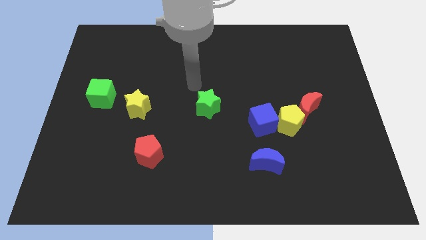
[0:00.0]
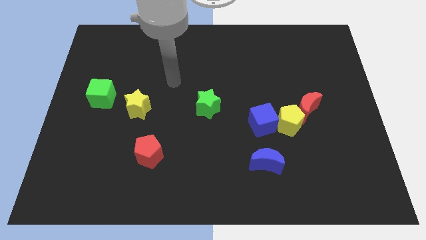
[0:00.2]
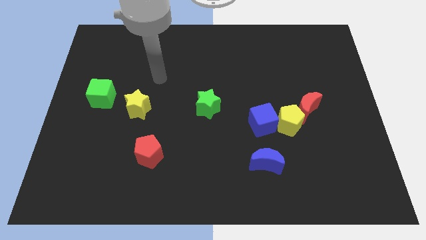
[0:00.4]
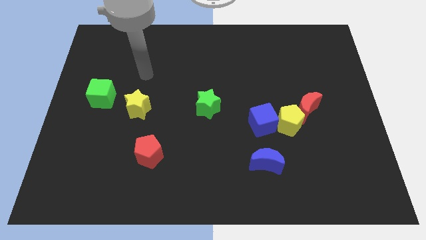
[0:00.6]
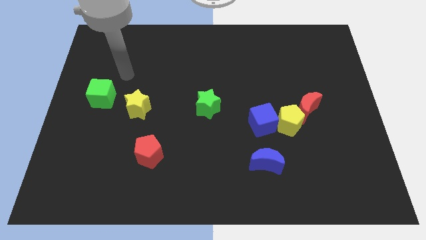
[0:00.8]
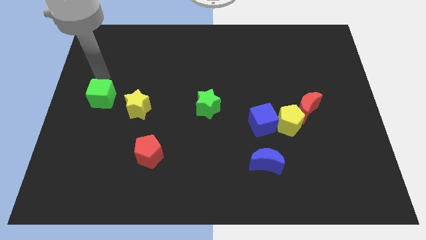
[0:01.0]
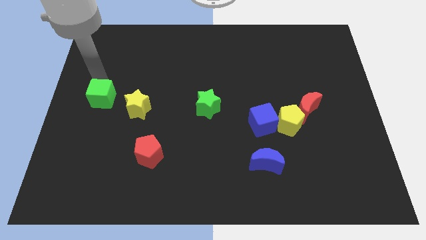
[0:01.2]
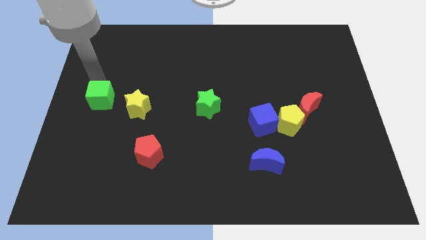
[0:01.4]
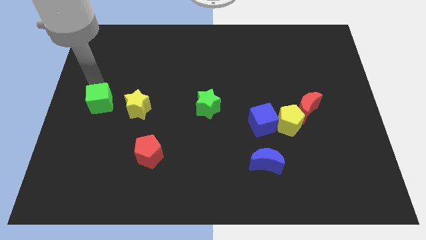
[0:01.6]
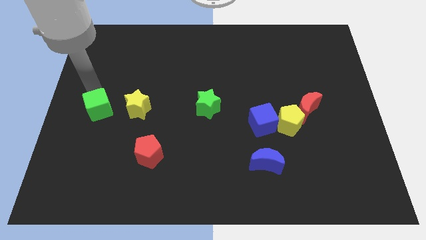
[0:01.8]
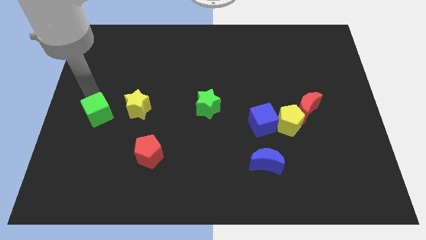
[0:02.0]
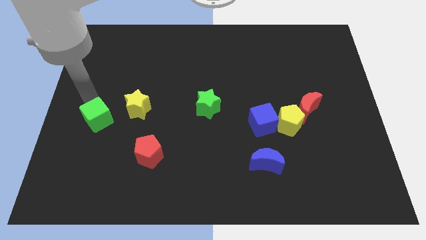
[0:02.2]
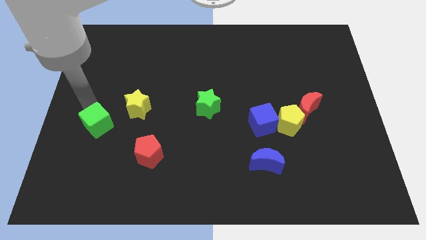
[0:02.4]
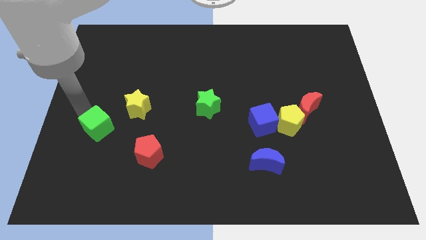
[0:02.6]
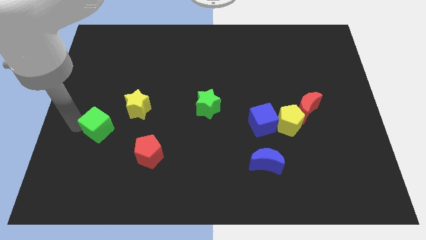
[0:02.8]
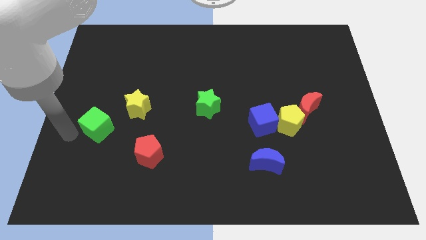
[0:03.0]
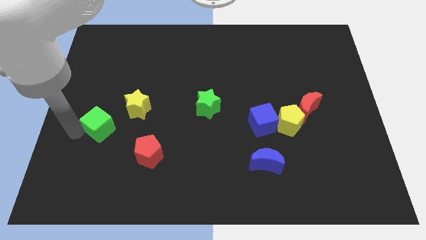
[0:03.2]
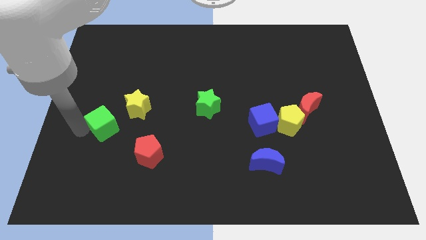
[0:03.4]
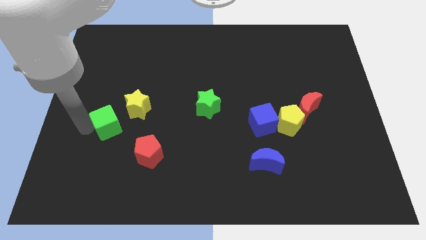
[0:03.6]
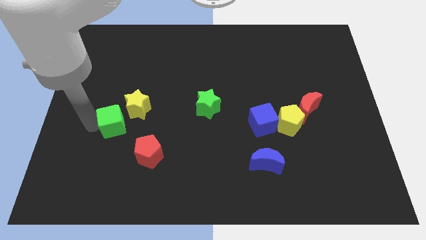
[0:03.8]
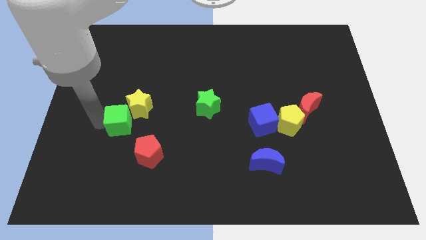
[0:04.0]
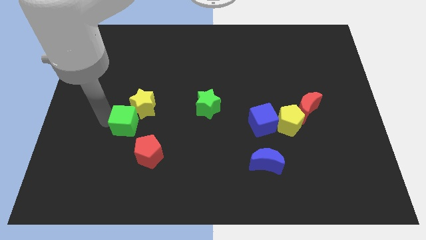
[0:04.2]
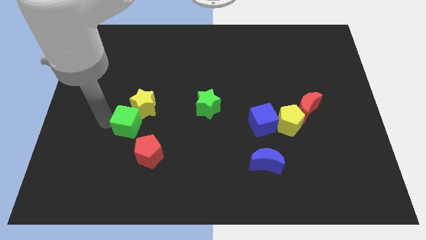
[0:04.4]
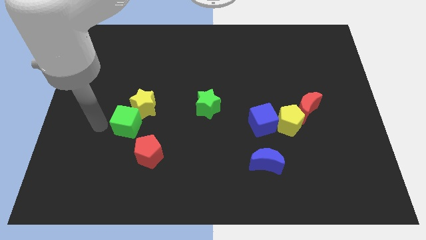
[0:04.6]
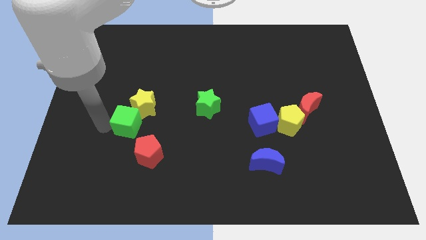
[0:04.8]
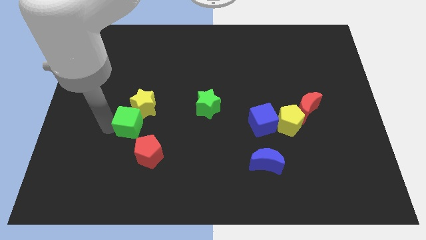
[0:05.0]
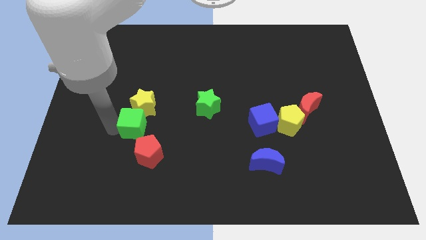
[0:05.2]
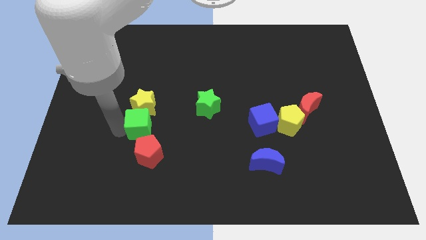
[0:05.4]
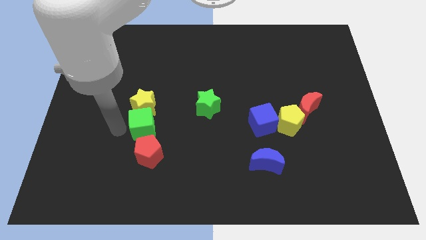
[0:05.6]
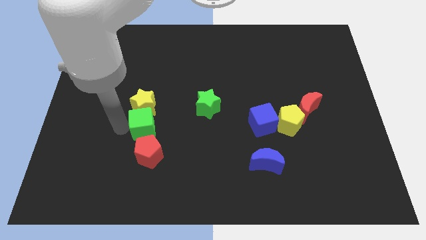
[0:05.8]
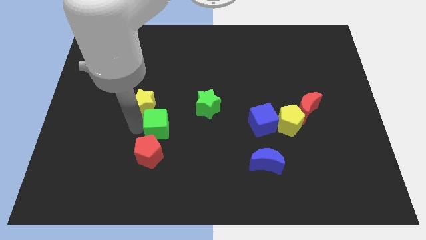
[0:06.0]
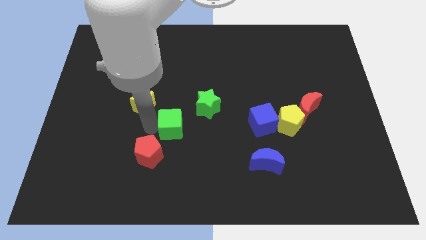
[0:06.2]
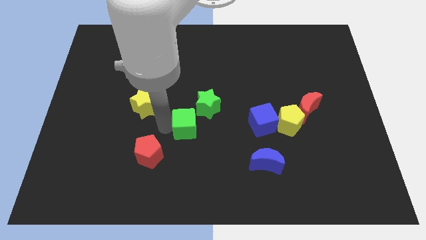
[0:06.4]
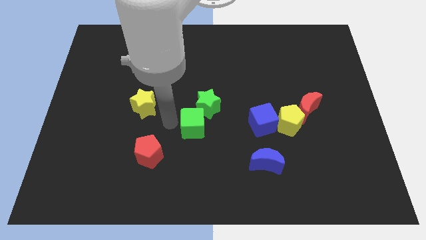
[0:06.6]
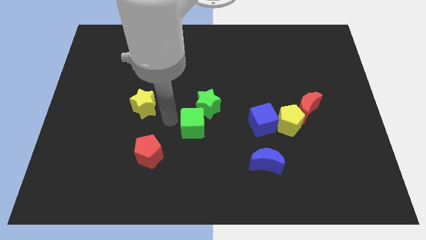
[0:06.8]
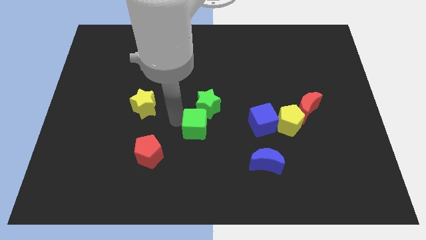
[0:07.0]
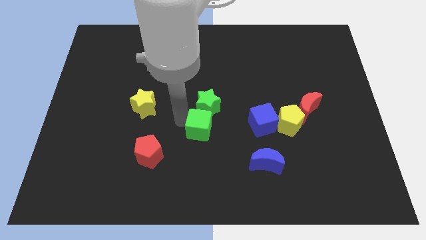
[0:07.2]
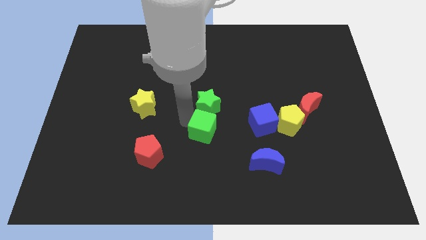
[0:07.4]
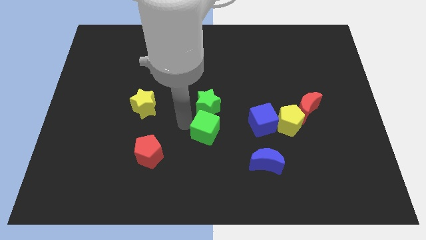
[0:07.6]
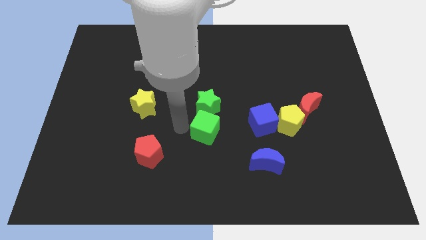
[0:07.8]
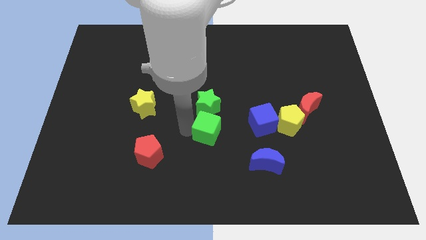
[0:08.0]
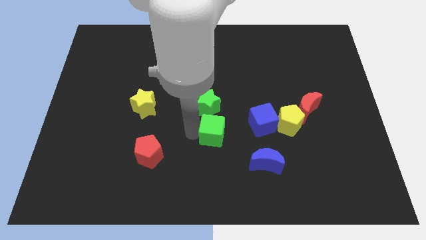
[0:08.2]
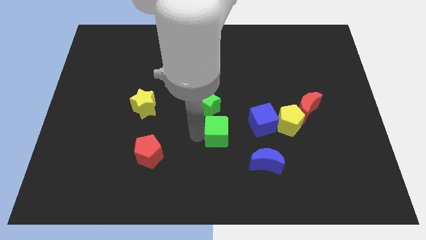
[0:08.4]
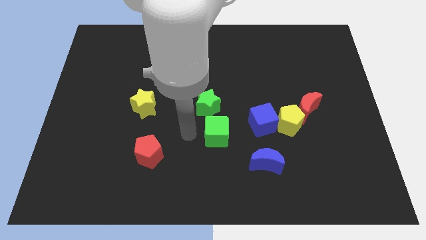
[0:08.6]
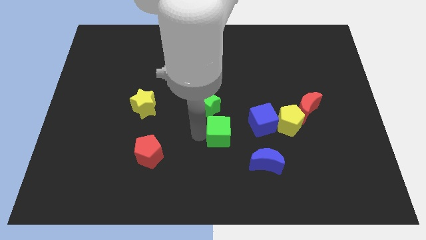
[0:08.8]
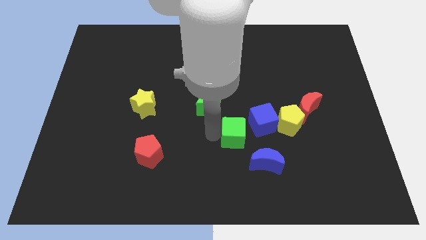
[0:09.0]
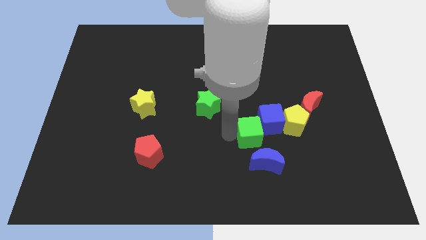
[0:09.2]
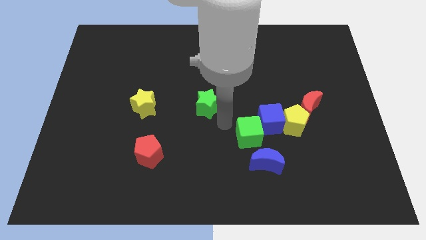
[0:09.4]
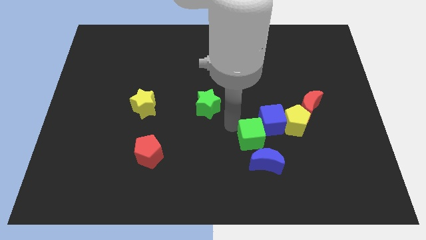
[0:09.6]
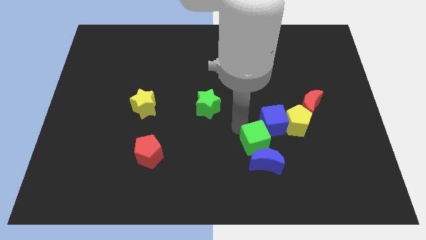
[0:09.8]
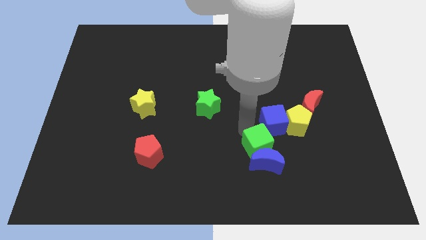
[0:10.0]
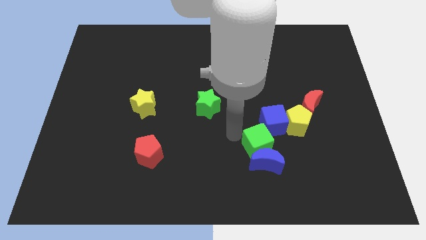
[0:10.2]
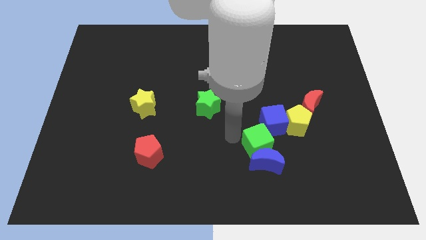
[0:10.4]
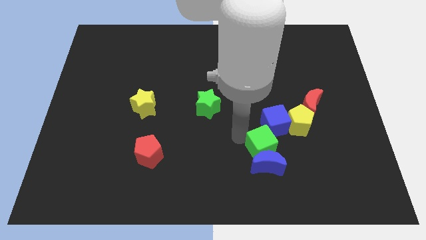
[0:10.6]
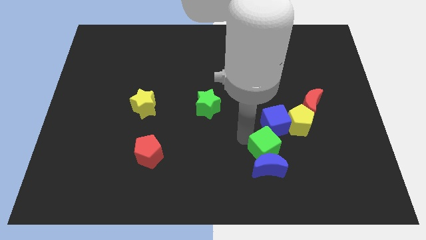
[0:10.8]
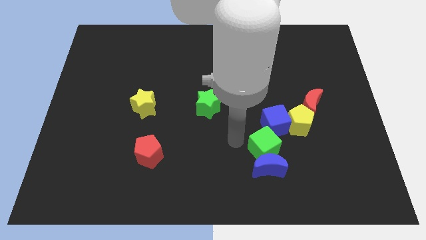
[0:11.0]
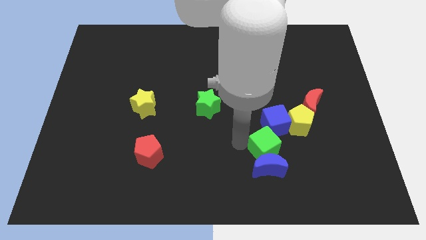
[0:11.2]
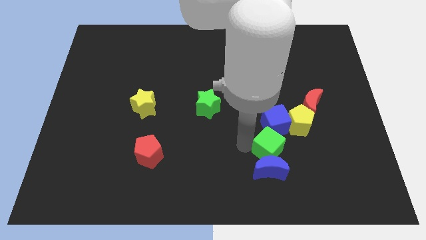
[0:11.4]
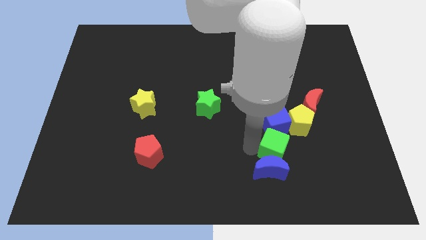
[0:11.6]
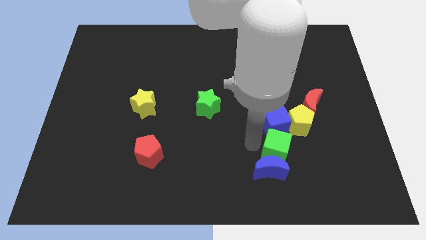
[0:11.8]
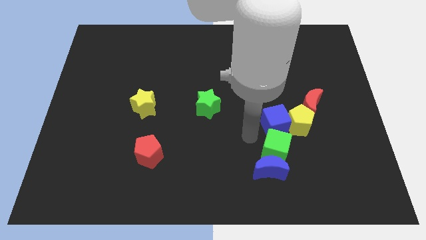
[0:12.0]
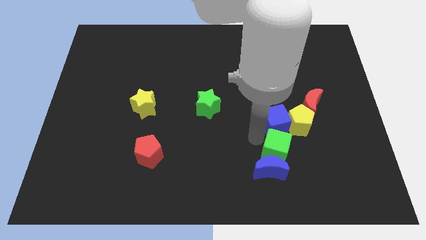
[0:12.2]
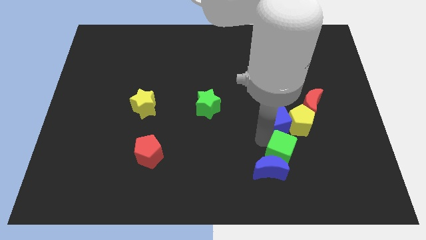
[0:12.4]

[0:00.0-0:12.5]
move the green cube below the yellow pentagon
